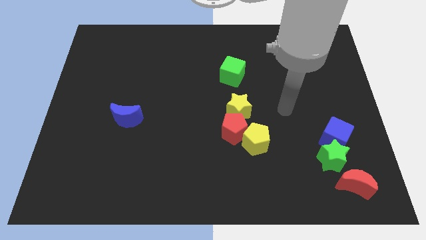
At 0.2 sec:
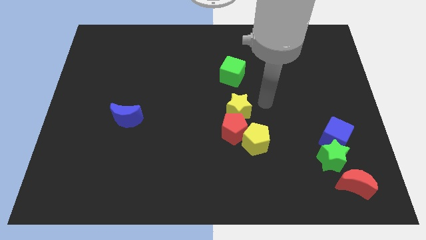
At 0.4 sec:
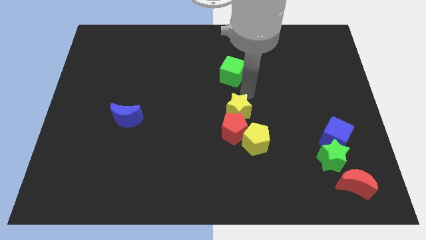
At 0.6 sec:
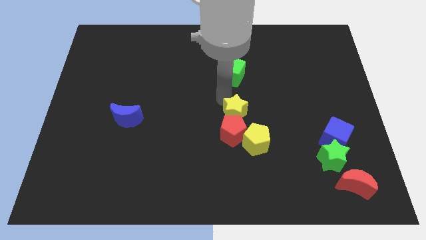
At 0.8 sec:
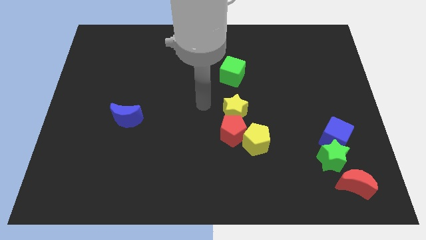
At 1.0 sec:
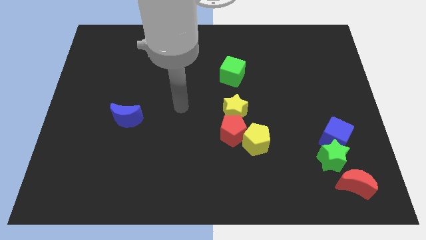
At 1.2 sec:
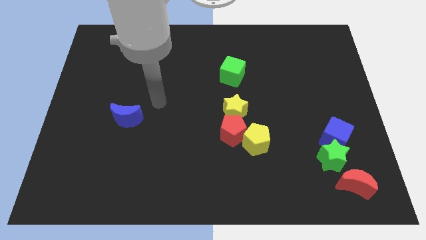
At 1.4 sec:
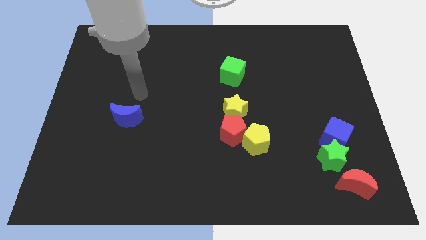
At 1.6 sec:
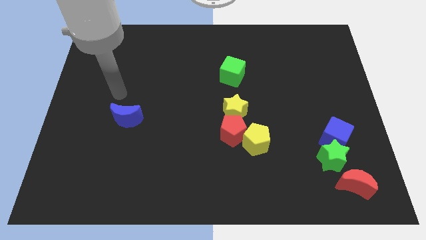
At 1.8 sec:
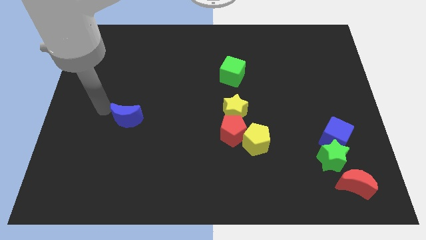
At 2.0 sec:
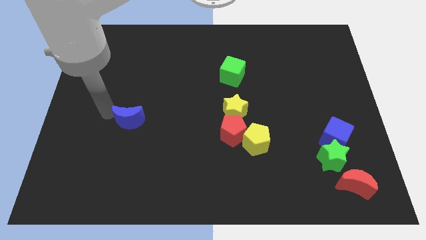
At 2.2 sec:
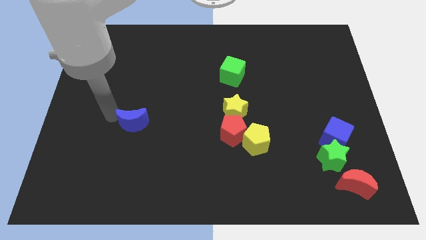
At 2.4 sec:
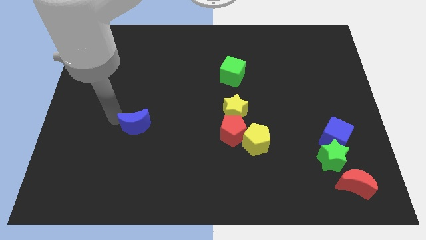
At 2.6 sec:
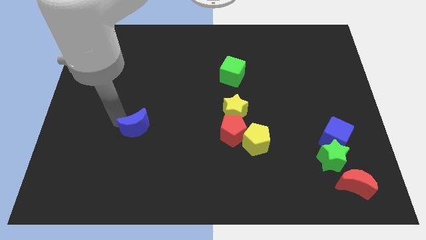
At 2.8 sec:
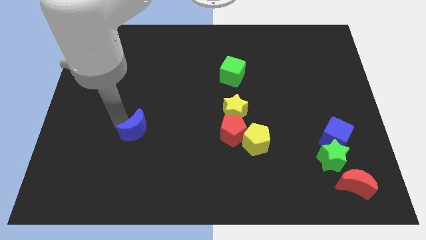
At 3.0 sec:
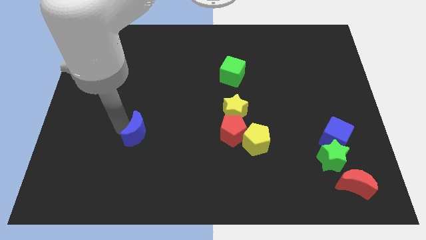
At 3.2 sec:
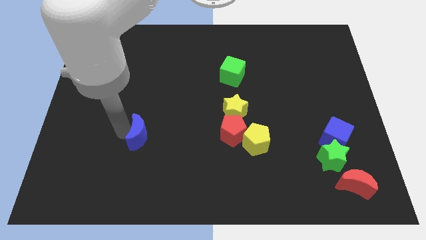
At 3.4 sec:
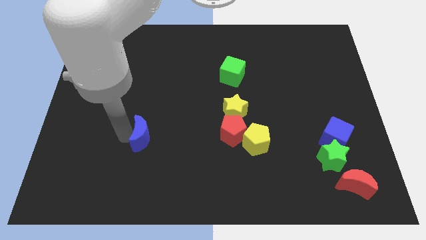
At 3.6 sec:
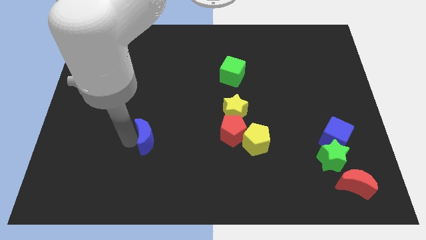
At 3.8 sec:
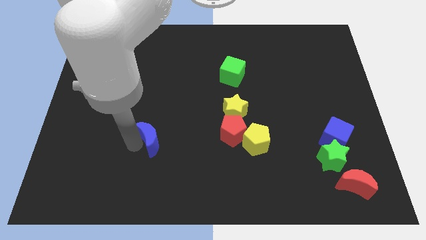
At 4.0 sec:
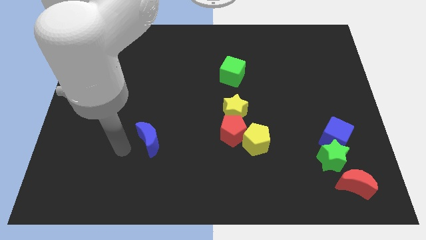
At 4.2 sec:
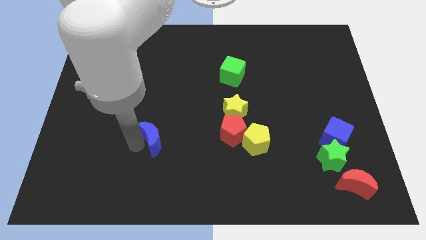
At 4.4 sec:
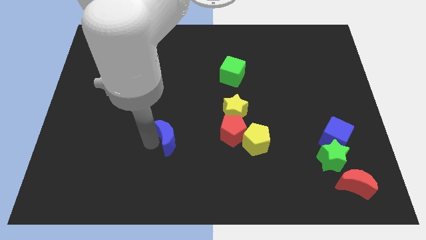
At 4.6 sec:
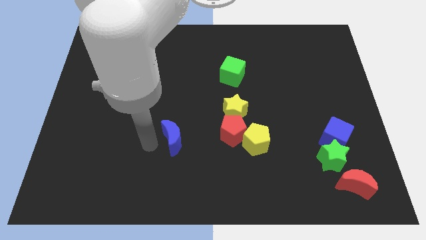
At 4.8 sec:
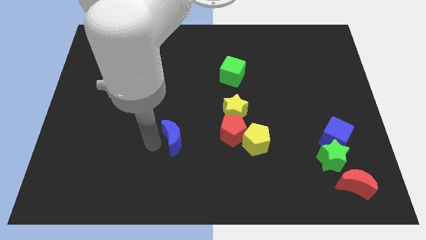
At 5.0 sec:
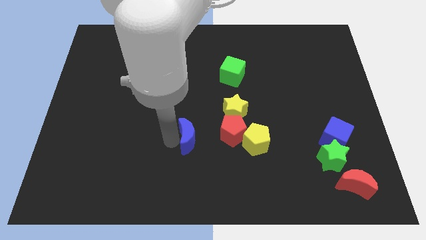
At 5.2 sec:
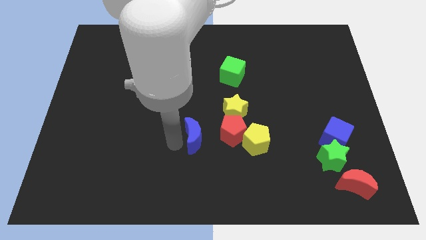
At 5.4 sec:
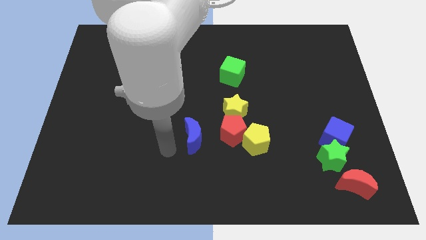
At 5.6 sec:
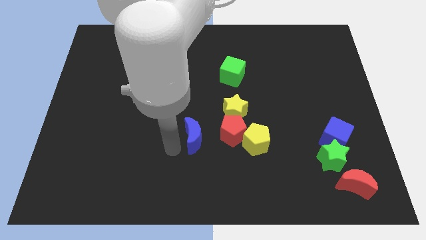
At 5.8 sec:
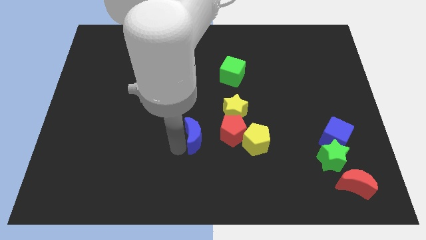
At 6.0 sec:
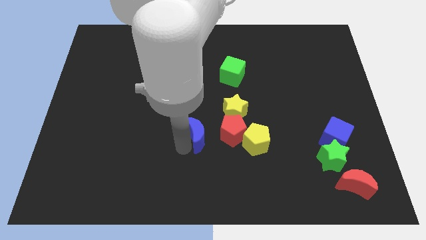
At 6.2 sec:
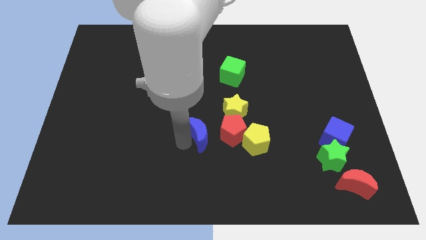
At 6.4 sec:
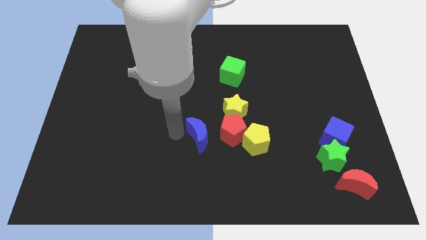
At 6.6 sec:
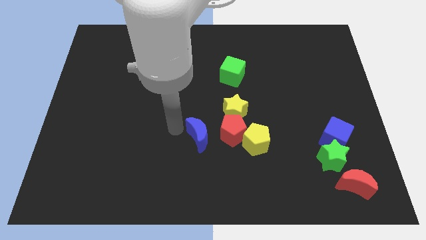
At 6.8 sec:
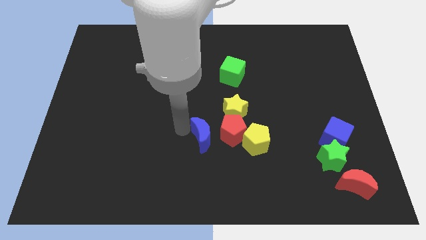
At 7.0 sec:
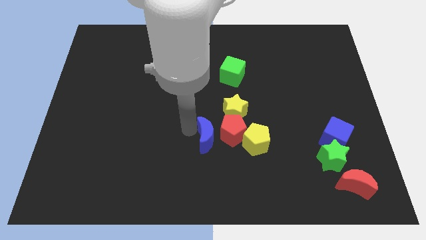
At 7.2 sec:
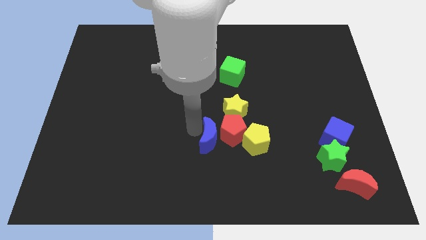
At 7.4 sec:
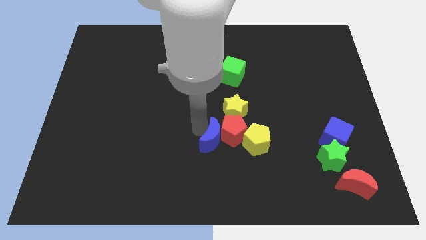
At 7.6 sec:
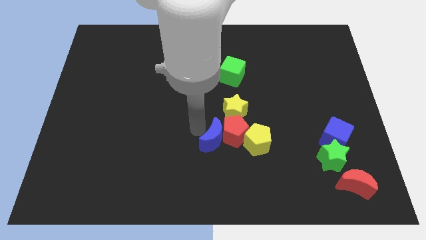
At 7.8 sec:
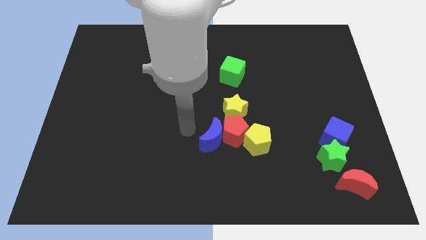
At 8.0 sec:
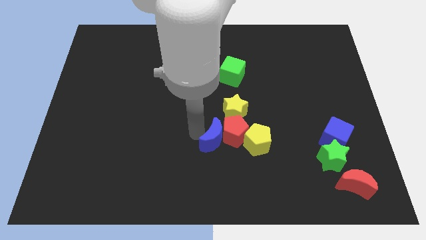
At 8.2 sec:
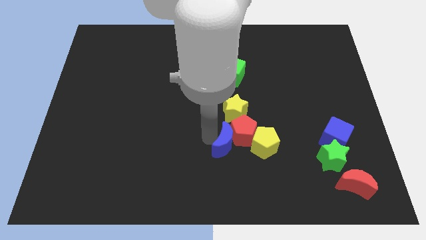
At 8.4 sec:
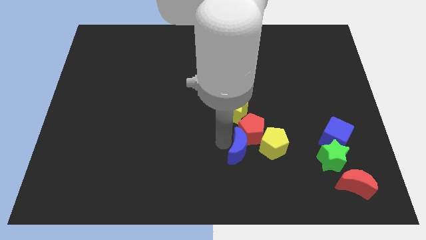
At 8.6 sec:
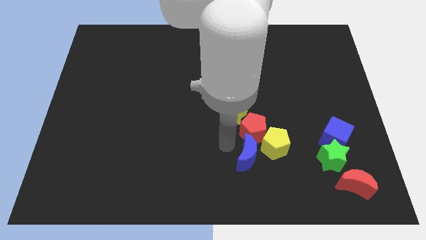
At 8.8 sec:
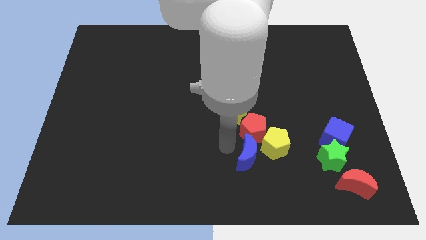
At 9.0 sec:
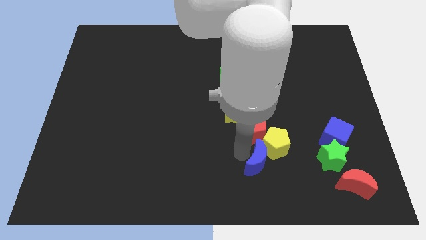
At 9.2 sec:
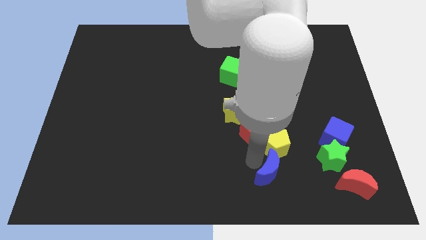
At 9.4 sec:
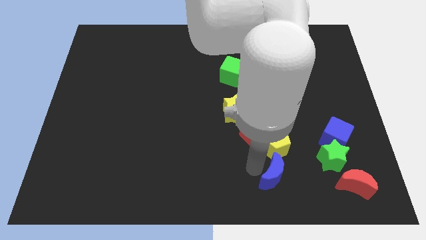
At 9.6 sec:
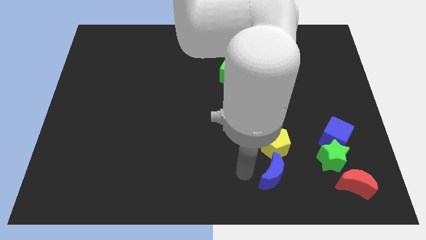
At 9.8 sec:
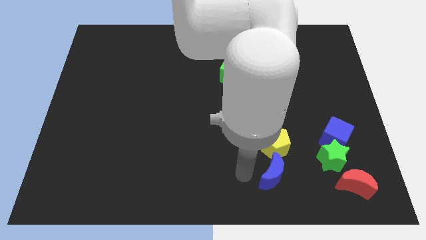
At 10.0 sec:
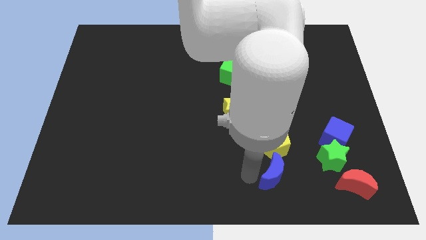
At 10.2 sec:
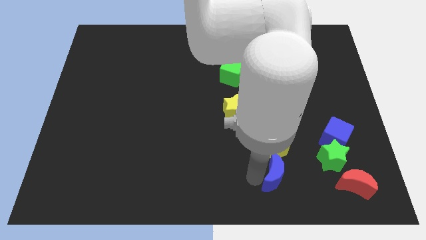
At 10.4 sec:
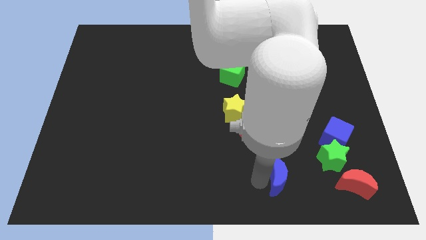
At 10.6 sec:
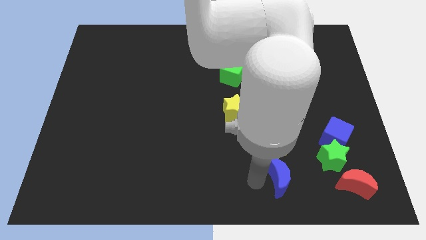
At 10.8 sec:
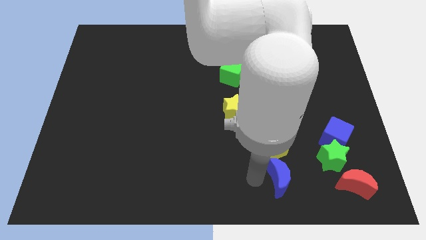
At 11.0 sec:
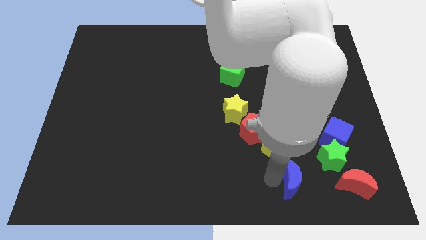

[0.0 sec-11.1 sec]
slide the blue moon to the bottom left of the green star

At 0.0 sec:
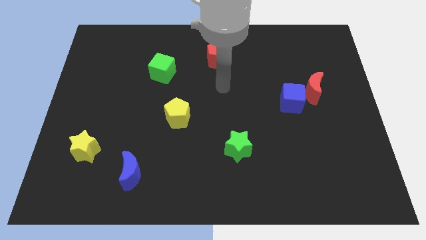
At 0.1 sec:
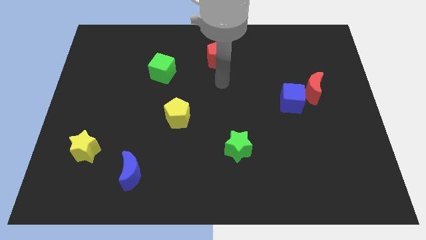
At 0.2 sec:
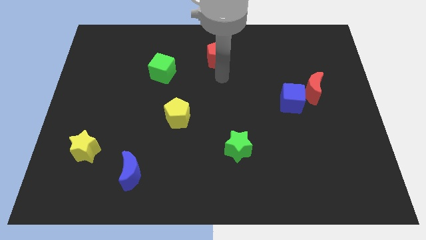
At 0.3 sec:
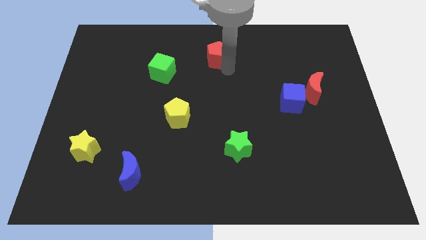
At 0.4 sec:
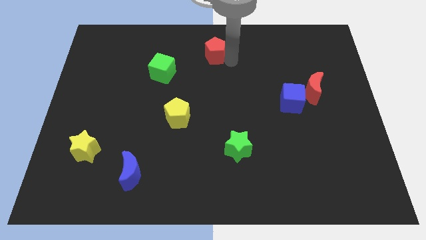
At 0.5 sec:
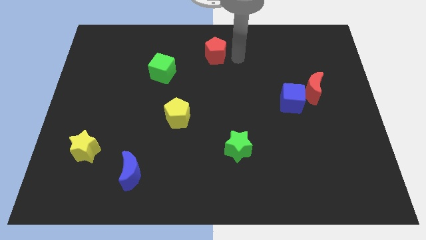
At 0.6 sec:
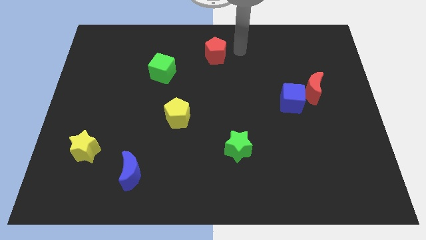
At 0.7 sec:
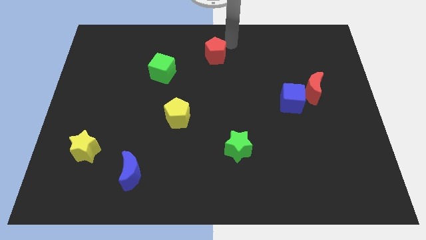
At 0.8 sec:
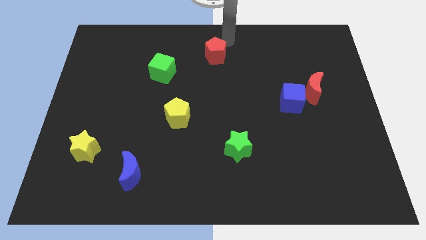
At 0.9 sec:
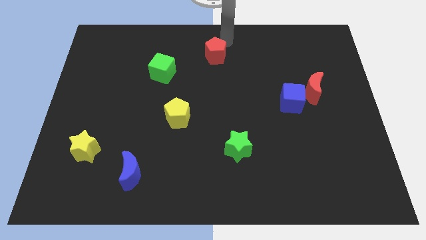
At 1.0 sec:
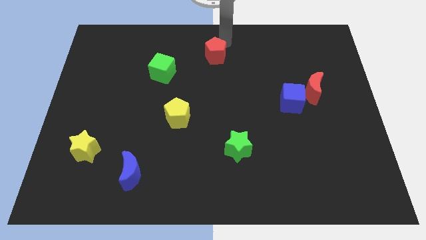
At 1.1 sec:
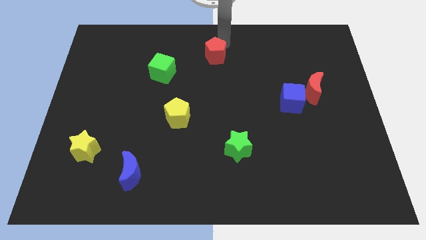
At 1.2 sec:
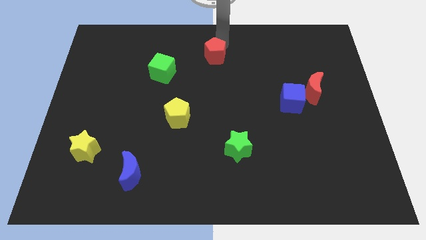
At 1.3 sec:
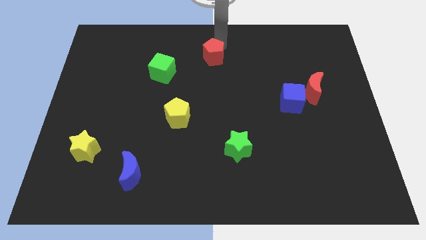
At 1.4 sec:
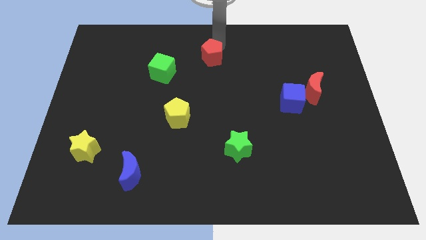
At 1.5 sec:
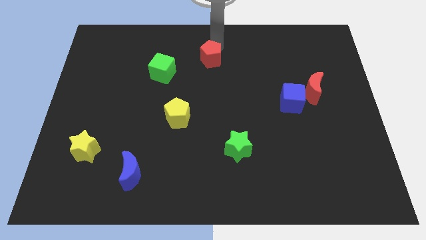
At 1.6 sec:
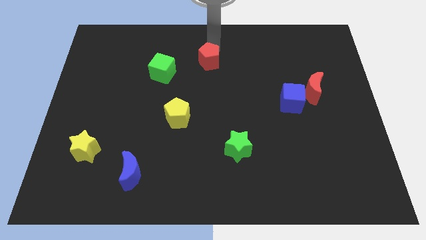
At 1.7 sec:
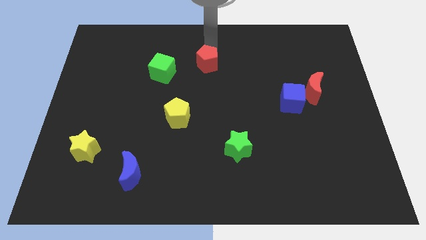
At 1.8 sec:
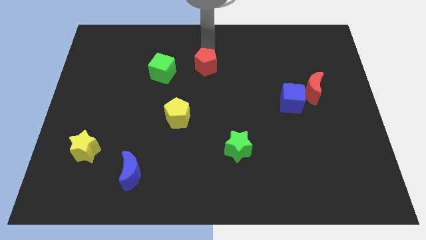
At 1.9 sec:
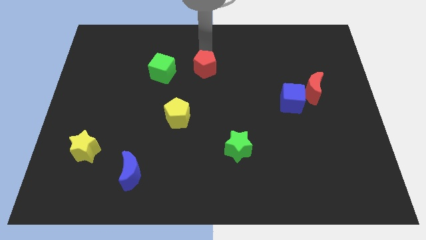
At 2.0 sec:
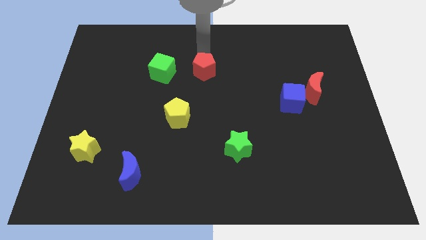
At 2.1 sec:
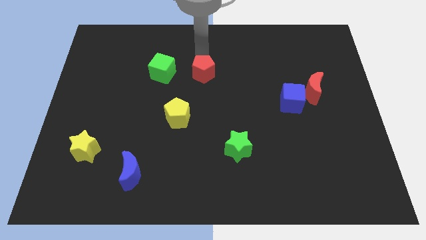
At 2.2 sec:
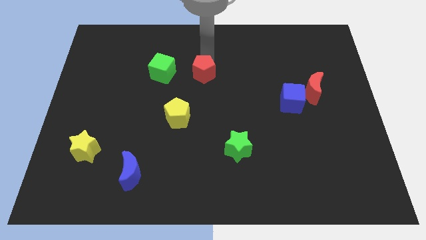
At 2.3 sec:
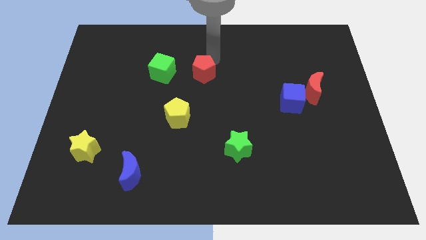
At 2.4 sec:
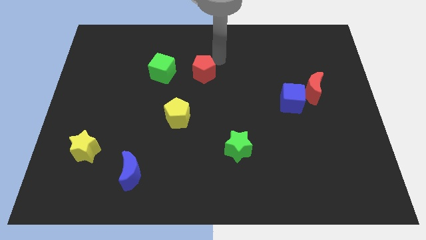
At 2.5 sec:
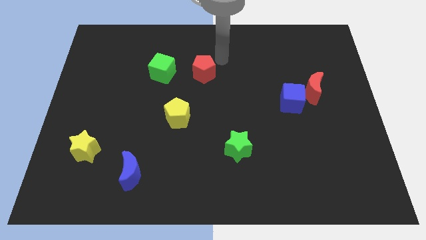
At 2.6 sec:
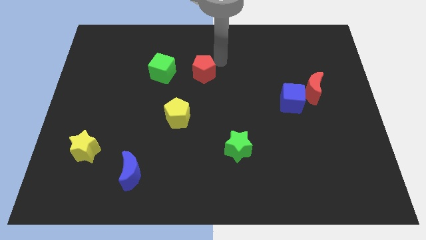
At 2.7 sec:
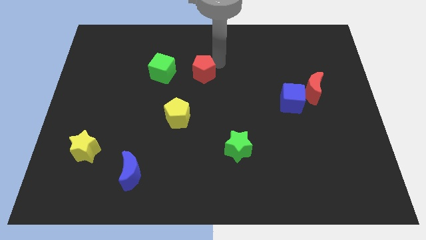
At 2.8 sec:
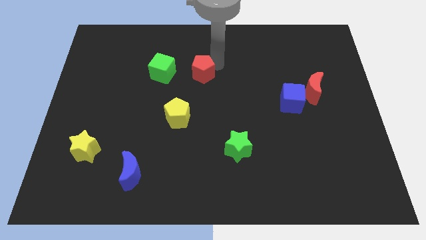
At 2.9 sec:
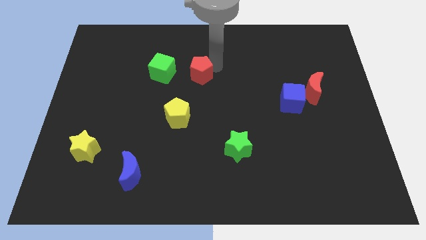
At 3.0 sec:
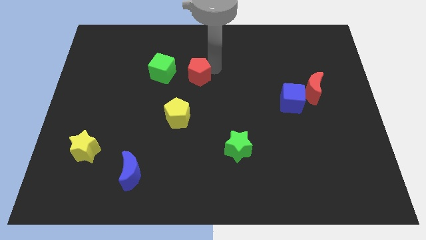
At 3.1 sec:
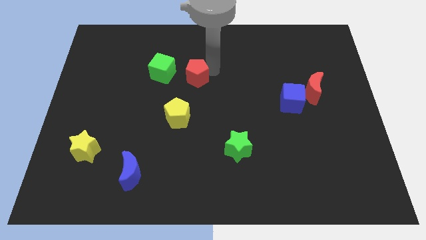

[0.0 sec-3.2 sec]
move the red pentagon diagonally down and to the right of the green cube
